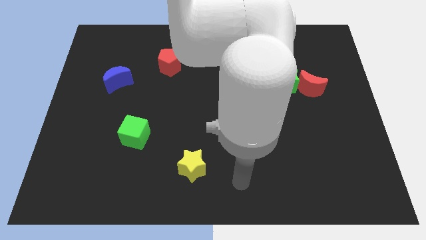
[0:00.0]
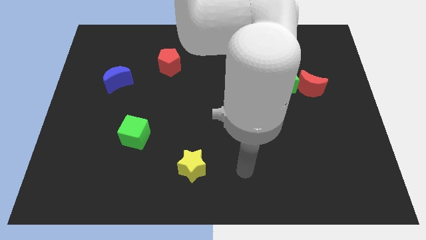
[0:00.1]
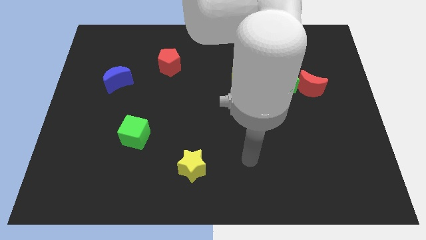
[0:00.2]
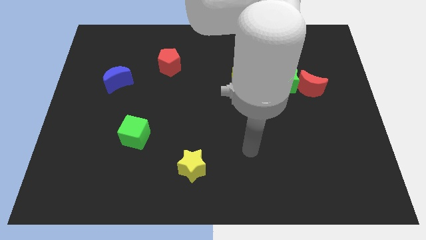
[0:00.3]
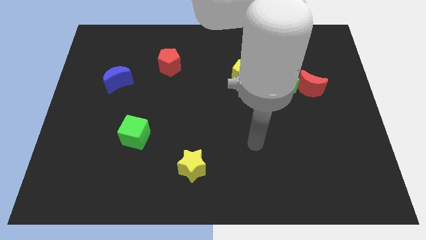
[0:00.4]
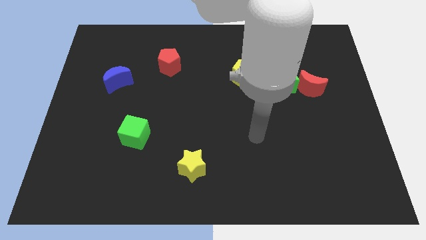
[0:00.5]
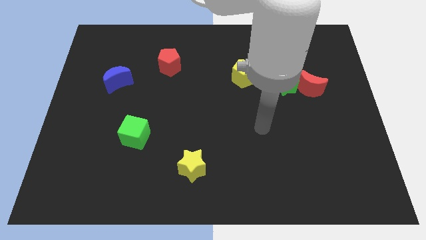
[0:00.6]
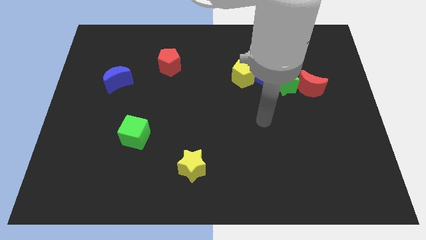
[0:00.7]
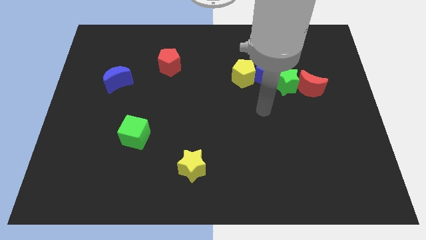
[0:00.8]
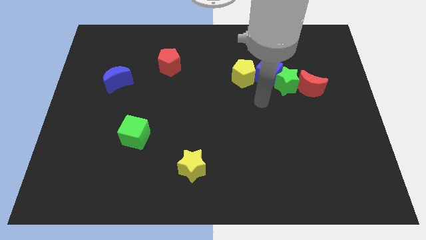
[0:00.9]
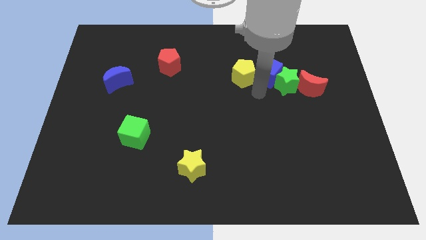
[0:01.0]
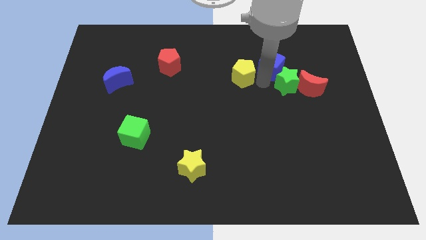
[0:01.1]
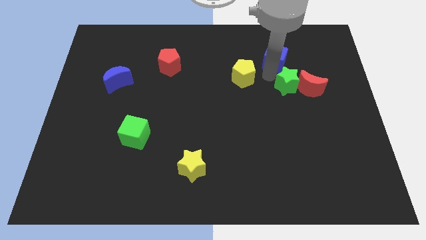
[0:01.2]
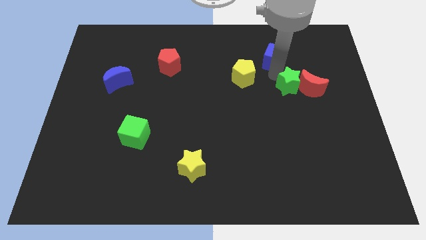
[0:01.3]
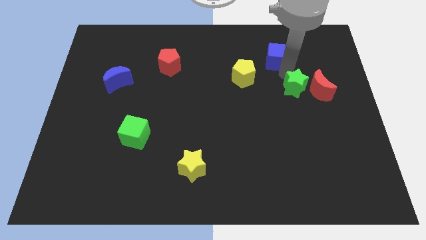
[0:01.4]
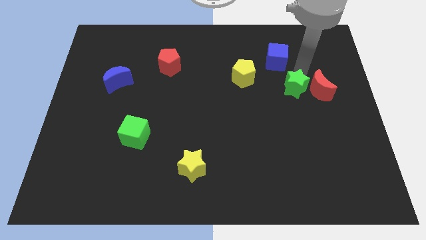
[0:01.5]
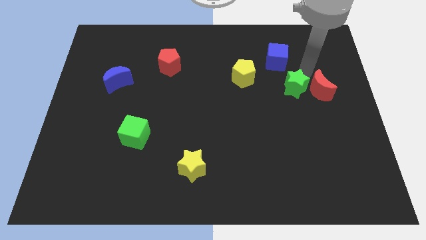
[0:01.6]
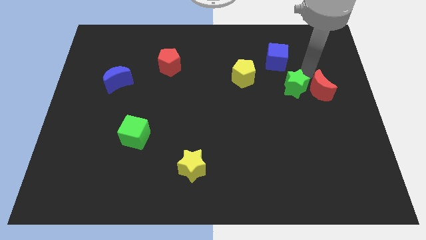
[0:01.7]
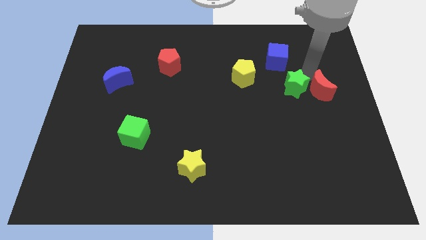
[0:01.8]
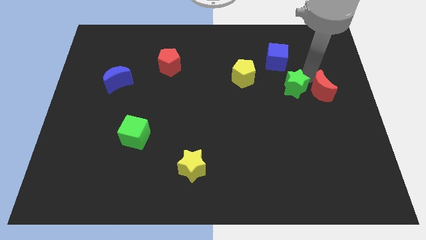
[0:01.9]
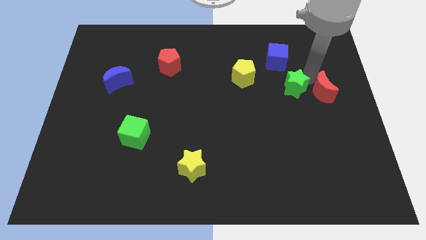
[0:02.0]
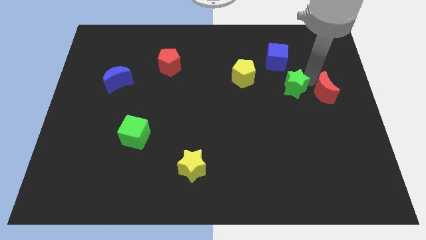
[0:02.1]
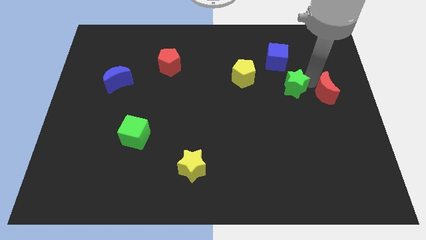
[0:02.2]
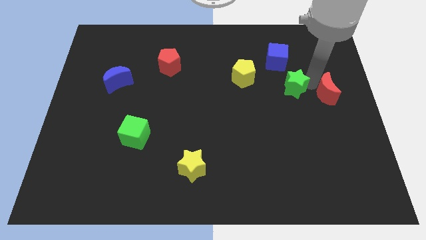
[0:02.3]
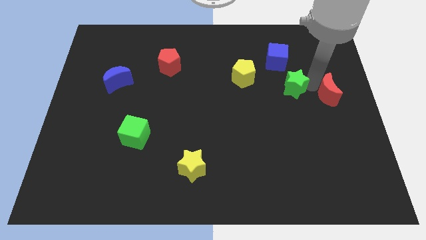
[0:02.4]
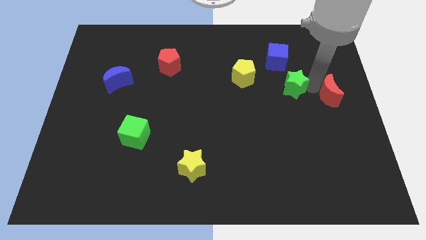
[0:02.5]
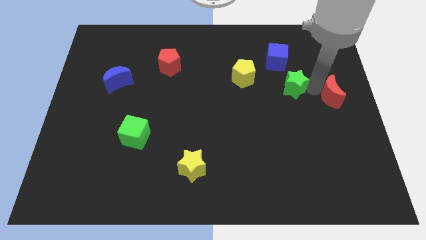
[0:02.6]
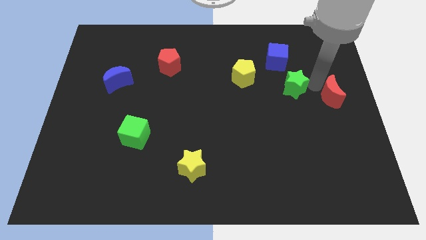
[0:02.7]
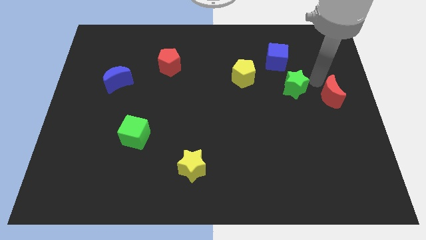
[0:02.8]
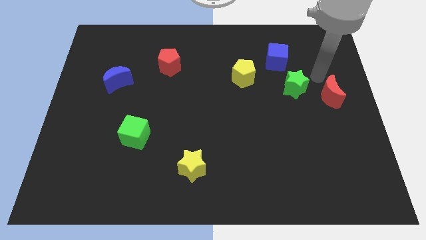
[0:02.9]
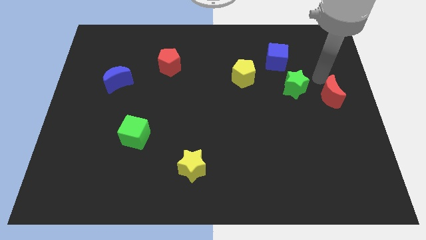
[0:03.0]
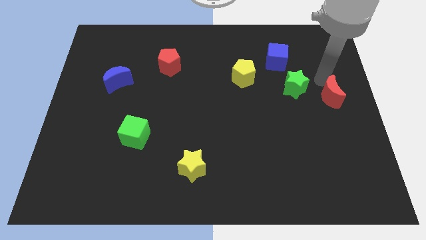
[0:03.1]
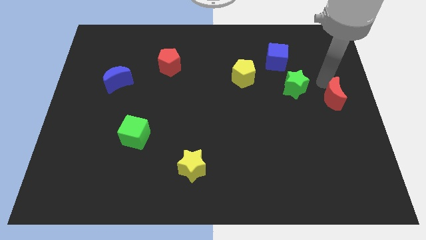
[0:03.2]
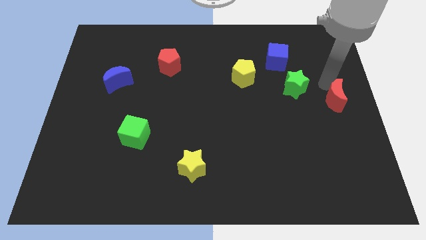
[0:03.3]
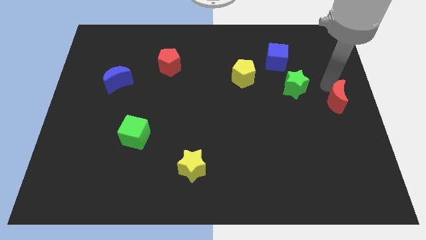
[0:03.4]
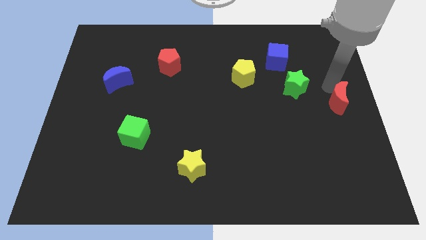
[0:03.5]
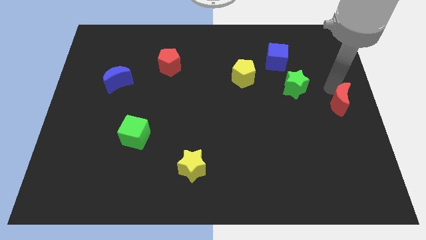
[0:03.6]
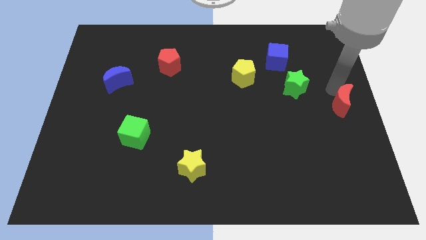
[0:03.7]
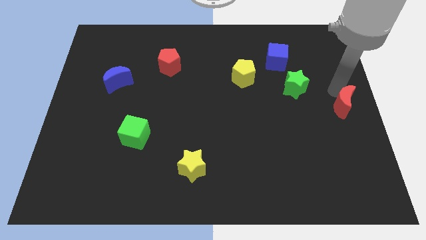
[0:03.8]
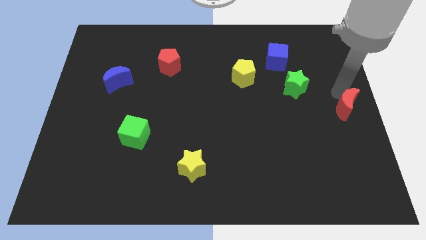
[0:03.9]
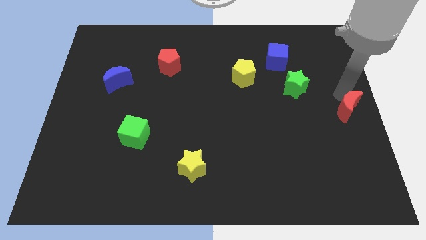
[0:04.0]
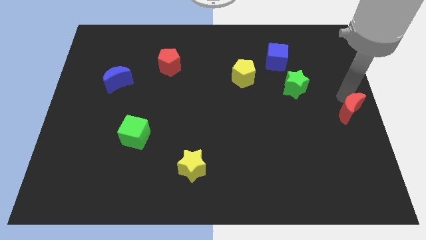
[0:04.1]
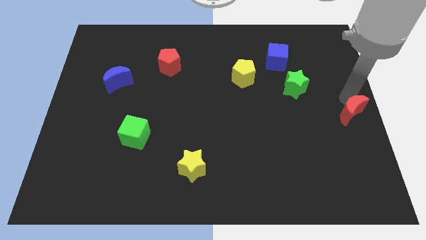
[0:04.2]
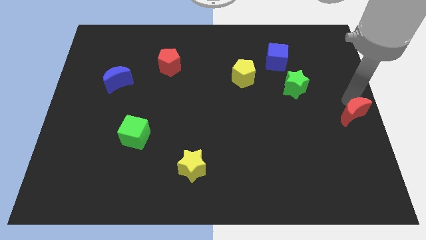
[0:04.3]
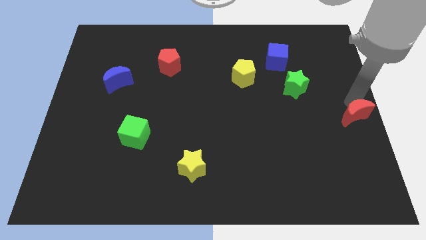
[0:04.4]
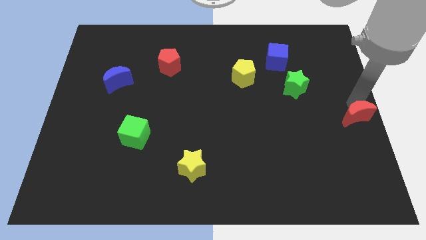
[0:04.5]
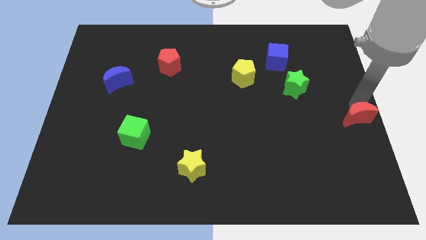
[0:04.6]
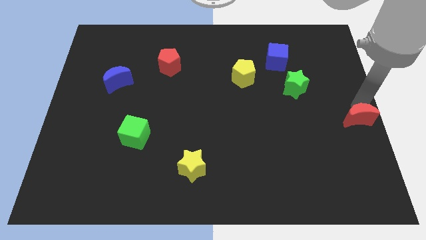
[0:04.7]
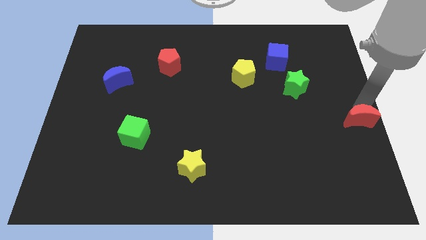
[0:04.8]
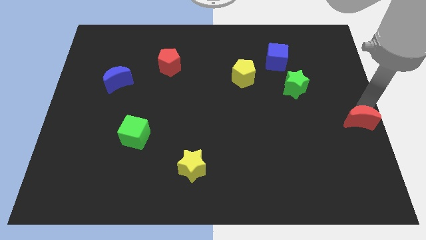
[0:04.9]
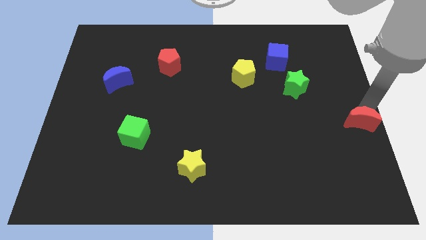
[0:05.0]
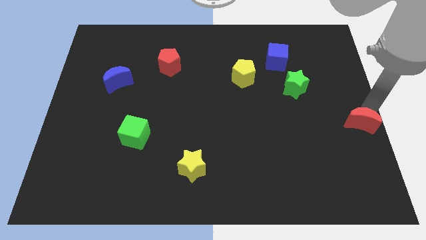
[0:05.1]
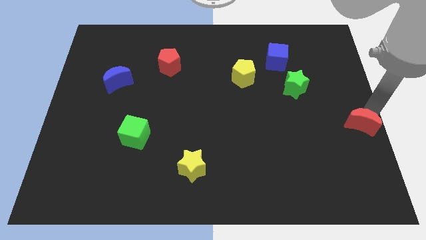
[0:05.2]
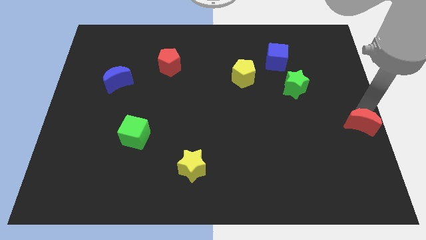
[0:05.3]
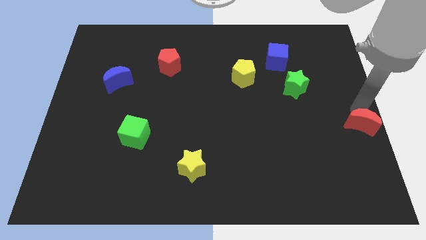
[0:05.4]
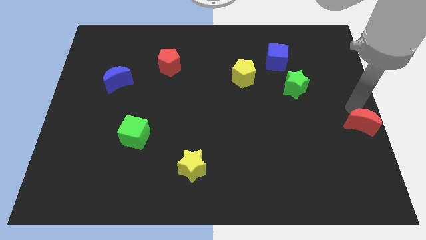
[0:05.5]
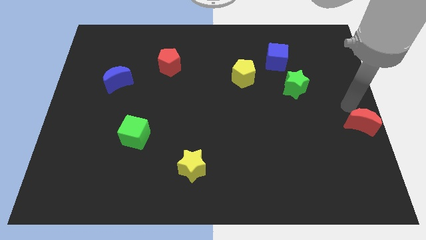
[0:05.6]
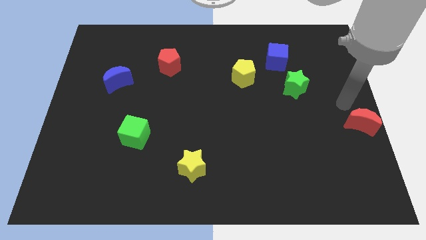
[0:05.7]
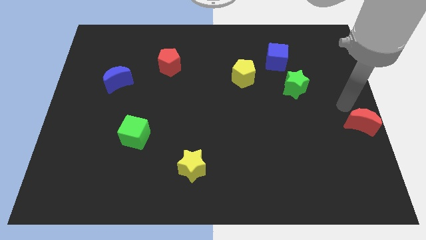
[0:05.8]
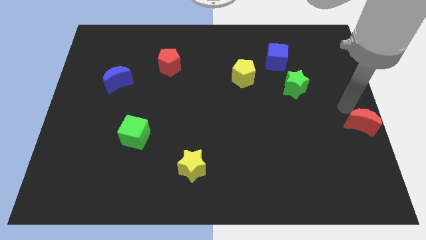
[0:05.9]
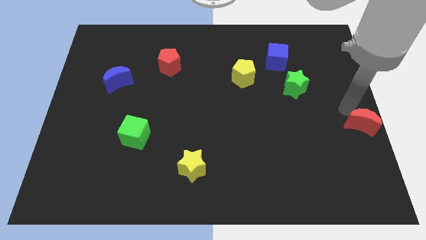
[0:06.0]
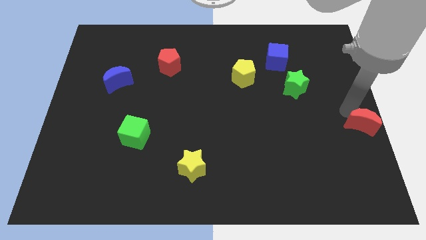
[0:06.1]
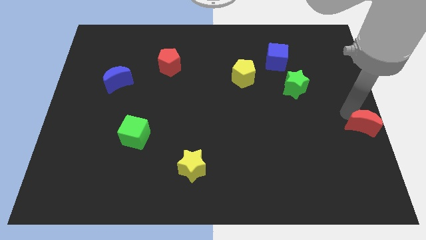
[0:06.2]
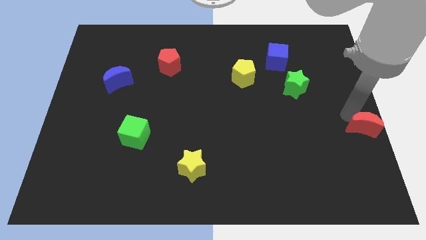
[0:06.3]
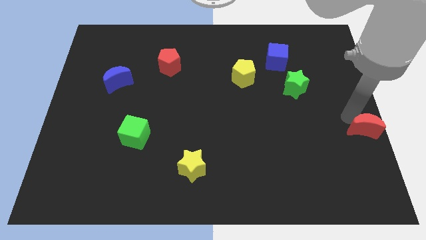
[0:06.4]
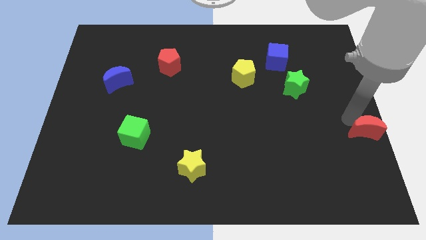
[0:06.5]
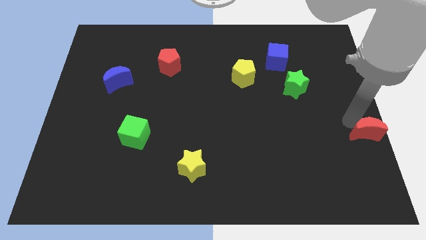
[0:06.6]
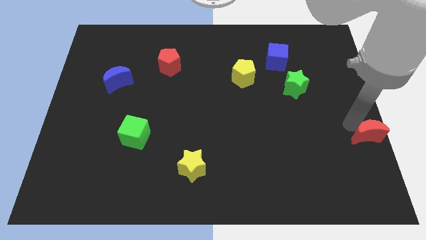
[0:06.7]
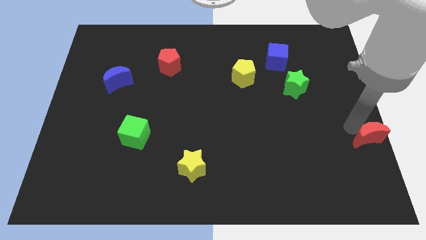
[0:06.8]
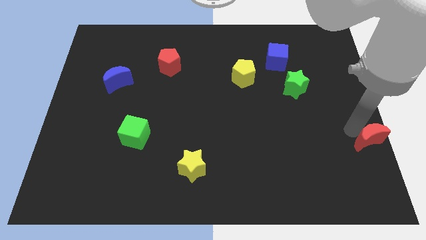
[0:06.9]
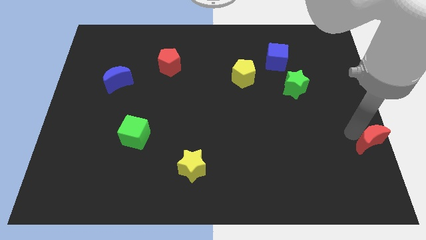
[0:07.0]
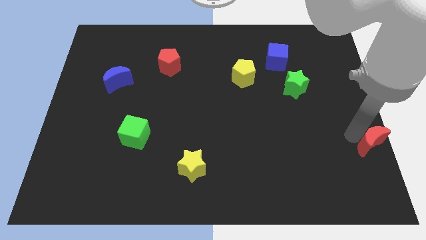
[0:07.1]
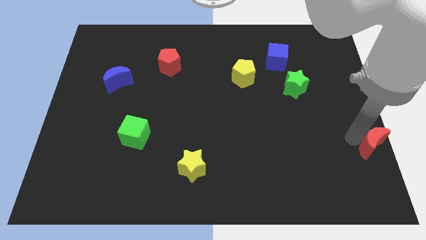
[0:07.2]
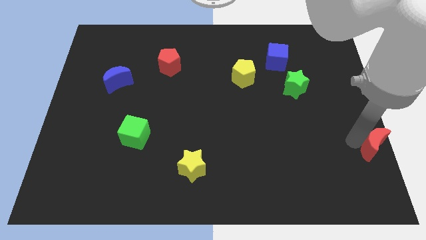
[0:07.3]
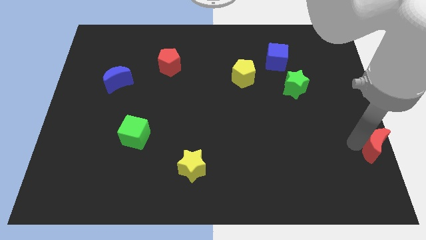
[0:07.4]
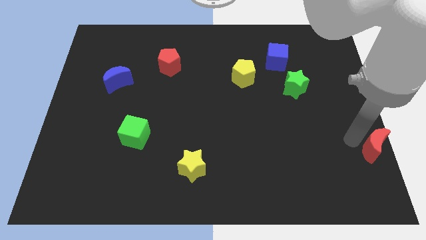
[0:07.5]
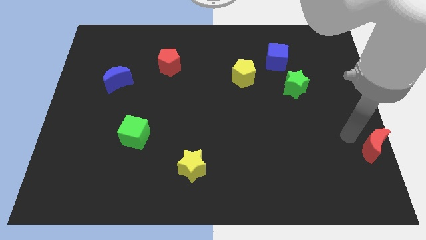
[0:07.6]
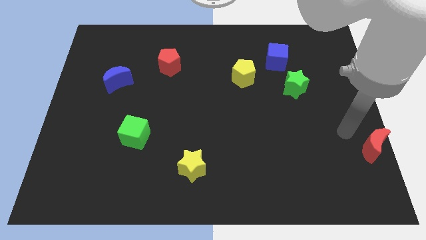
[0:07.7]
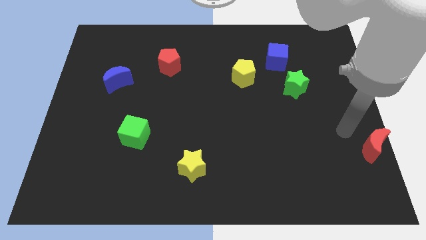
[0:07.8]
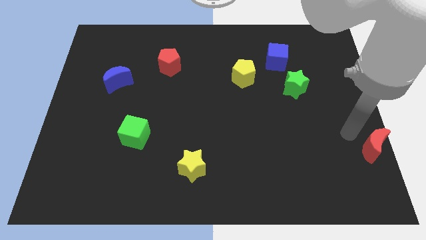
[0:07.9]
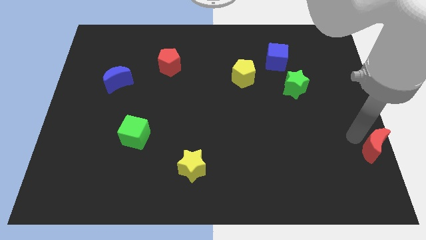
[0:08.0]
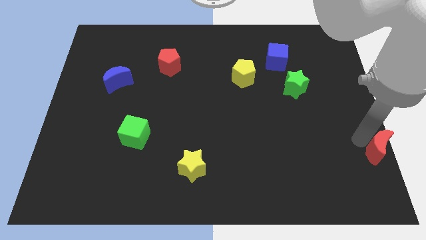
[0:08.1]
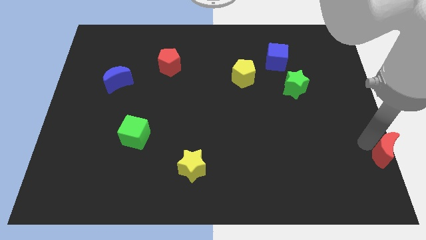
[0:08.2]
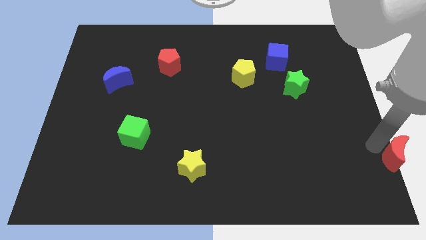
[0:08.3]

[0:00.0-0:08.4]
push the red moon to the bottom right of the board
